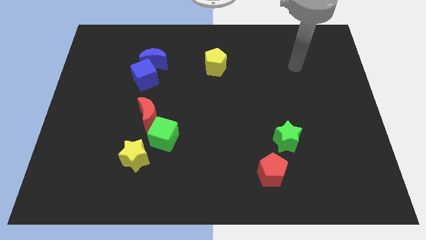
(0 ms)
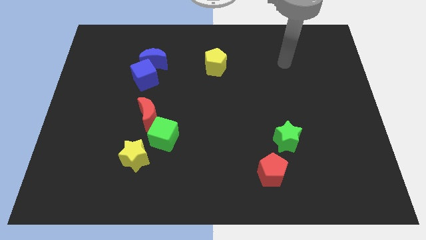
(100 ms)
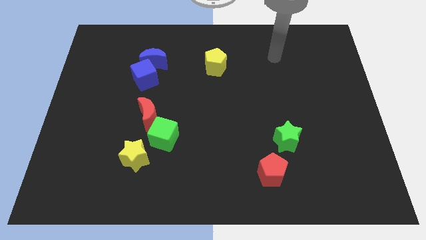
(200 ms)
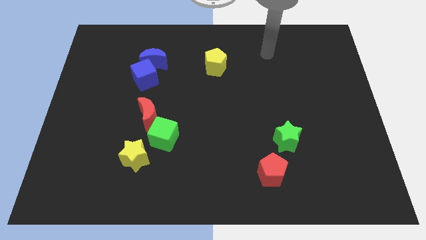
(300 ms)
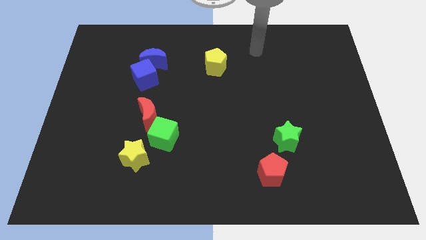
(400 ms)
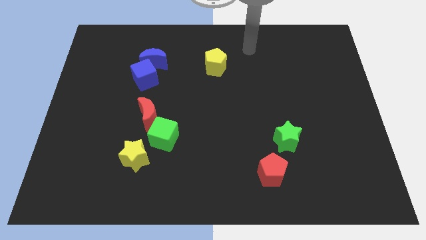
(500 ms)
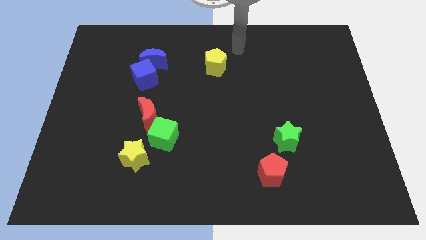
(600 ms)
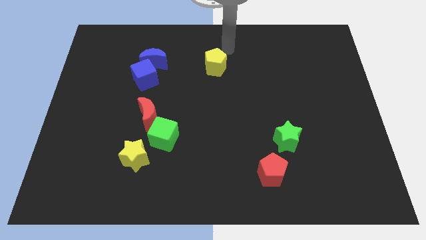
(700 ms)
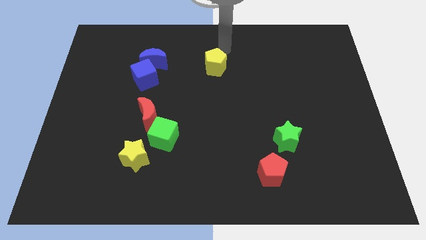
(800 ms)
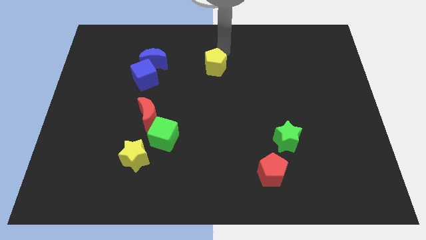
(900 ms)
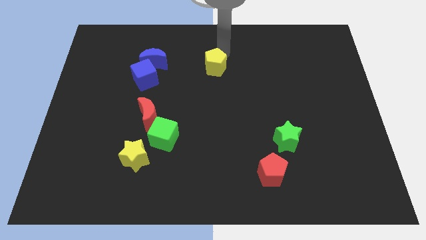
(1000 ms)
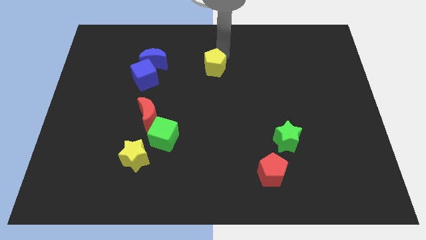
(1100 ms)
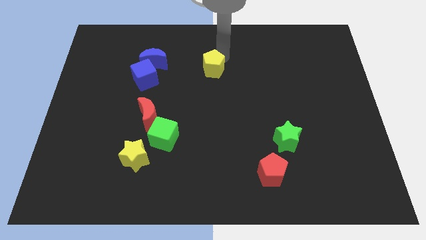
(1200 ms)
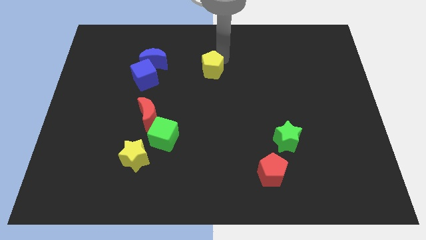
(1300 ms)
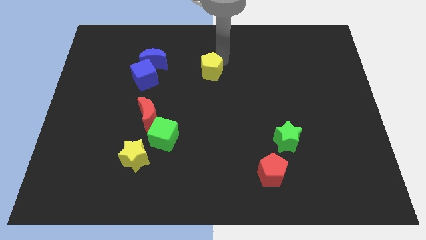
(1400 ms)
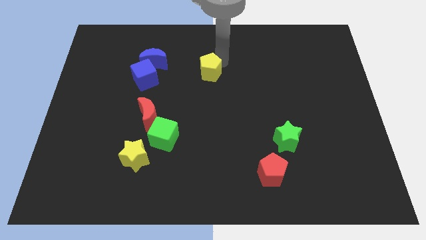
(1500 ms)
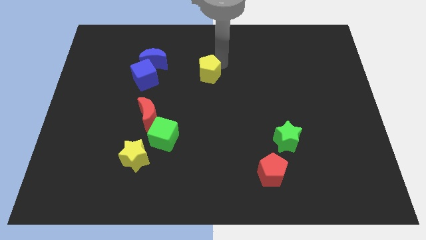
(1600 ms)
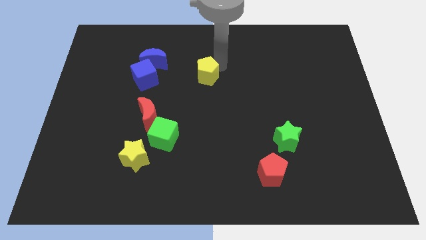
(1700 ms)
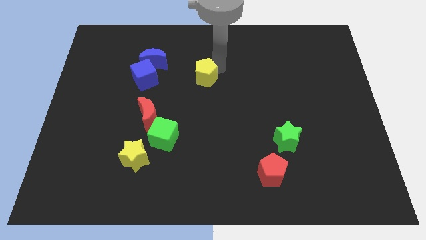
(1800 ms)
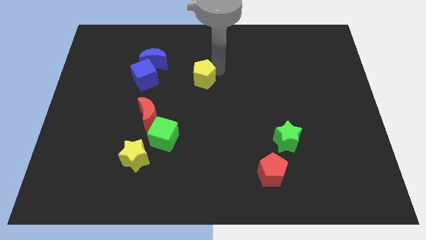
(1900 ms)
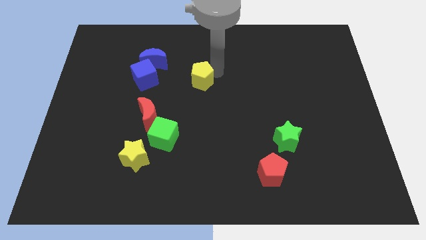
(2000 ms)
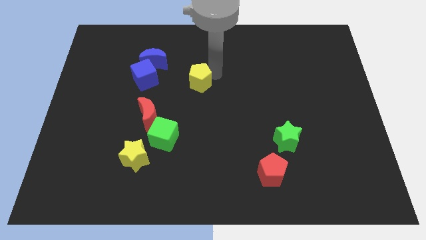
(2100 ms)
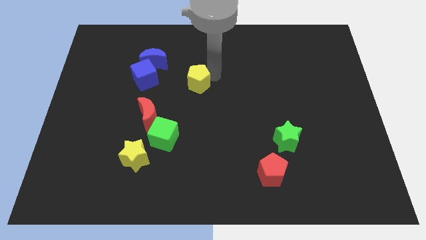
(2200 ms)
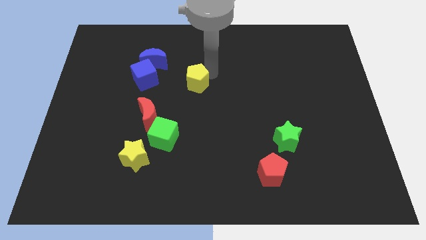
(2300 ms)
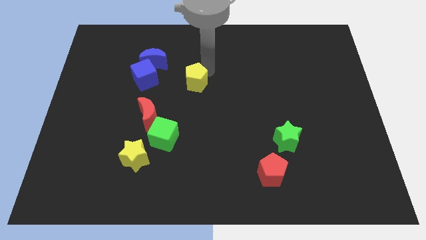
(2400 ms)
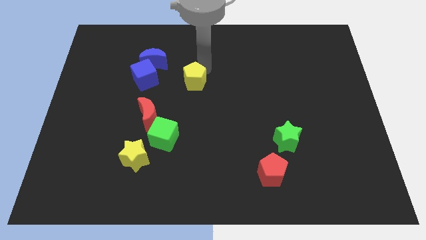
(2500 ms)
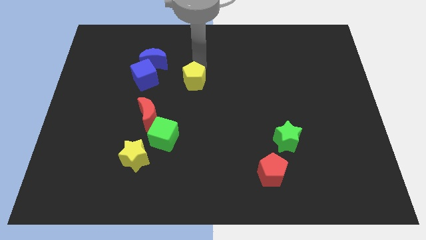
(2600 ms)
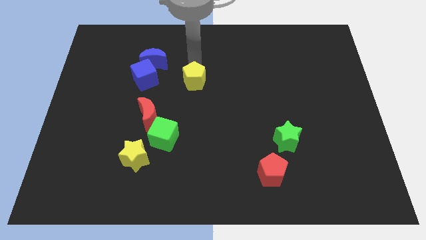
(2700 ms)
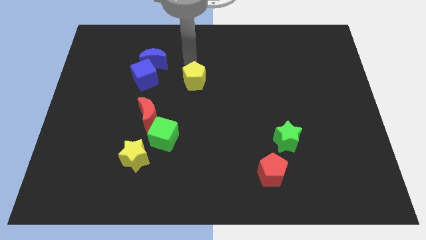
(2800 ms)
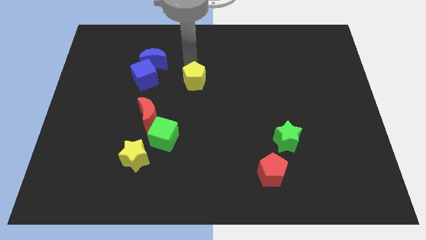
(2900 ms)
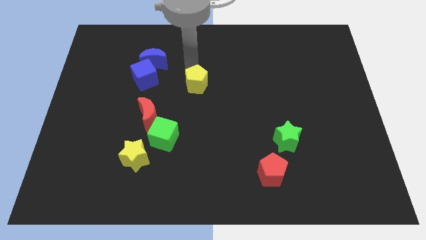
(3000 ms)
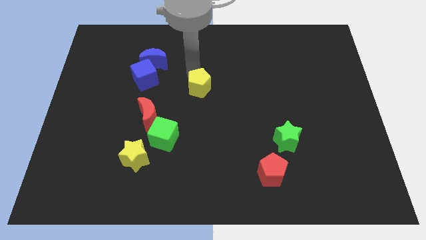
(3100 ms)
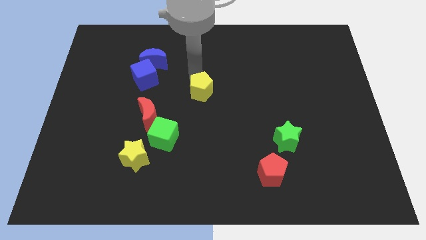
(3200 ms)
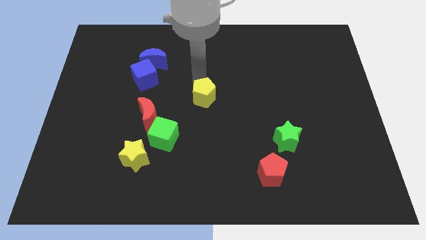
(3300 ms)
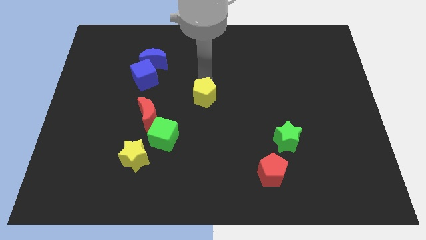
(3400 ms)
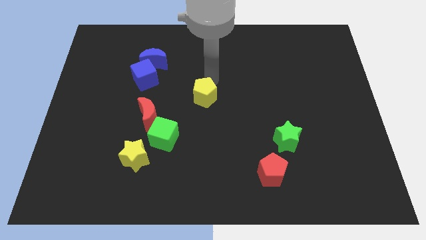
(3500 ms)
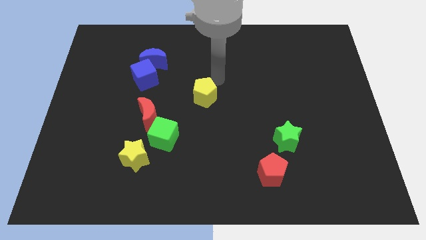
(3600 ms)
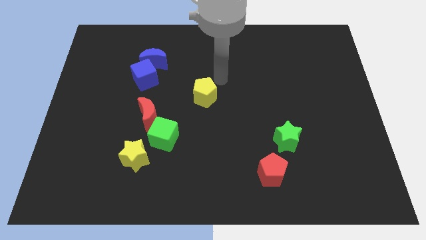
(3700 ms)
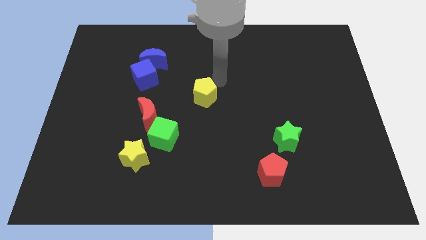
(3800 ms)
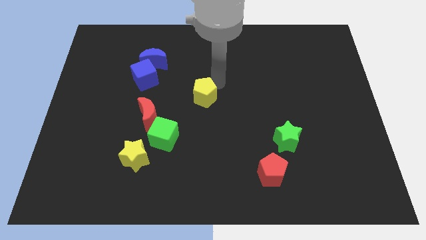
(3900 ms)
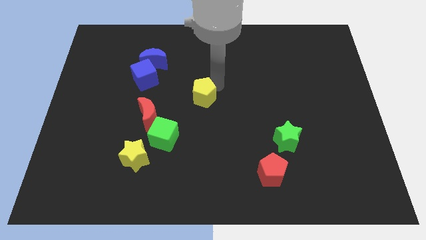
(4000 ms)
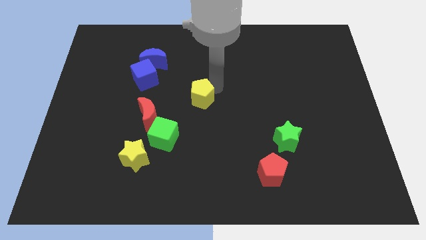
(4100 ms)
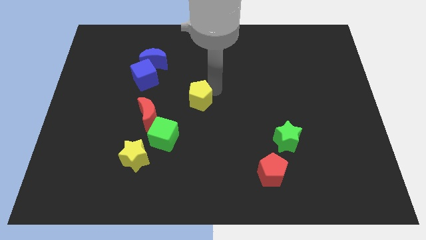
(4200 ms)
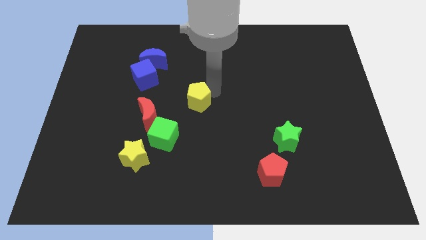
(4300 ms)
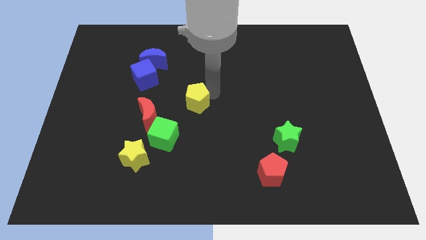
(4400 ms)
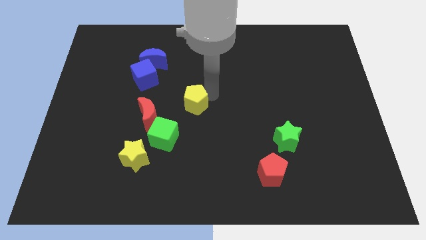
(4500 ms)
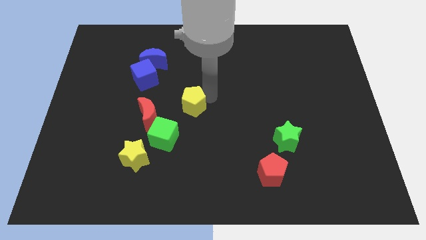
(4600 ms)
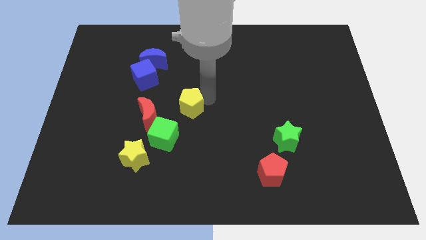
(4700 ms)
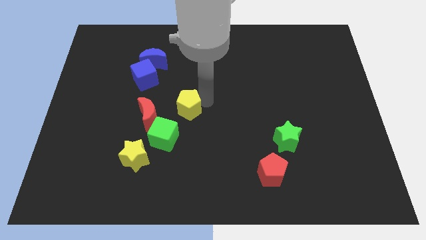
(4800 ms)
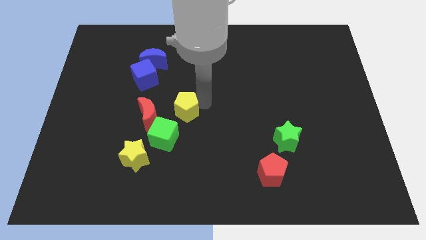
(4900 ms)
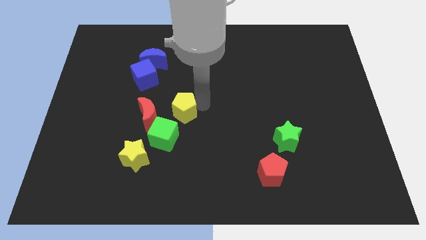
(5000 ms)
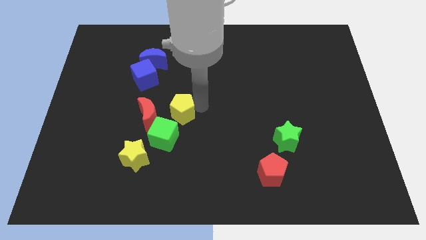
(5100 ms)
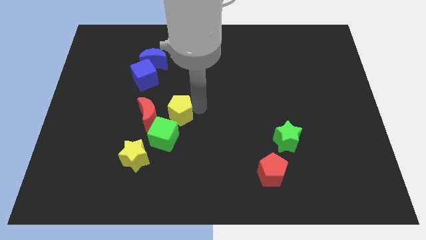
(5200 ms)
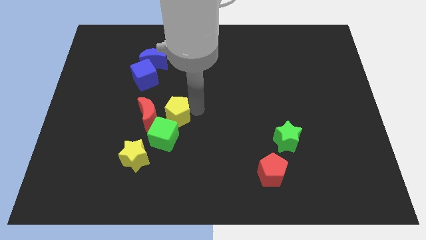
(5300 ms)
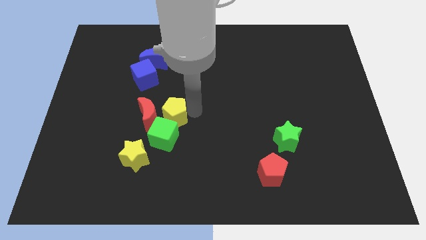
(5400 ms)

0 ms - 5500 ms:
slide the yellow pentagon next to the green cube

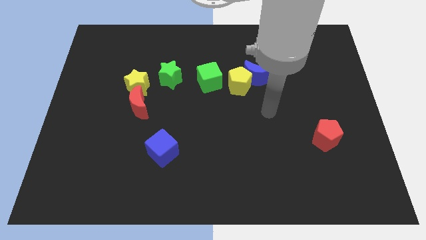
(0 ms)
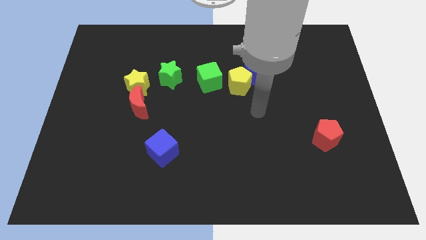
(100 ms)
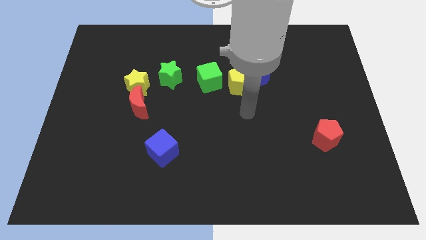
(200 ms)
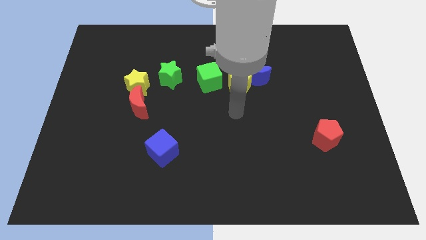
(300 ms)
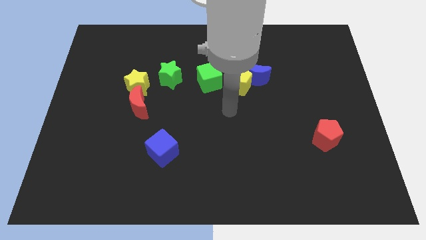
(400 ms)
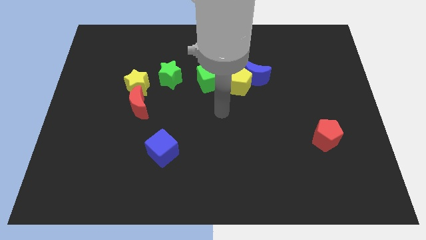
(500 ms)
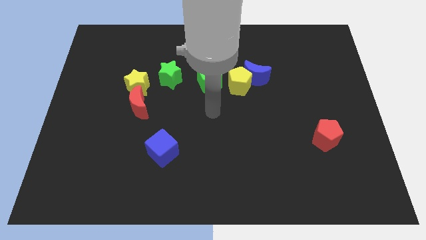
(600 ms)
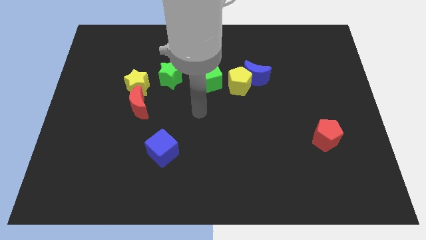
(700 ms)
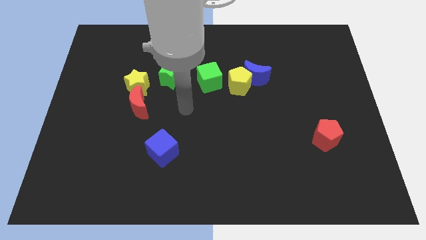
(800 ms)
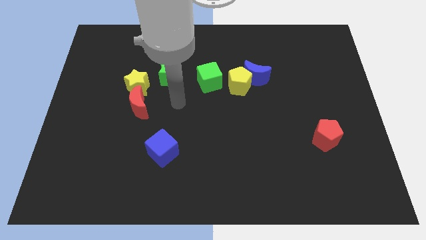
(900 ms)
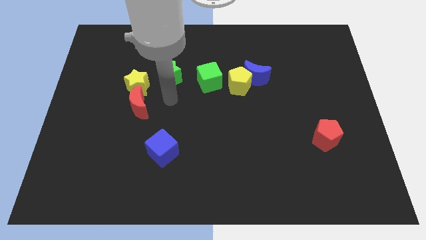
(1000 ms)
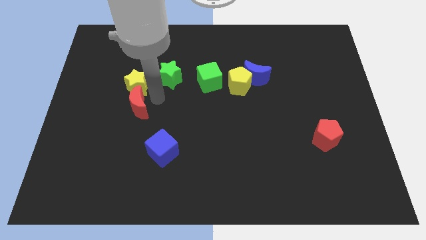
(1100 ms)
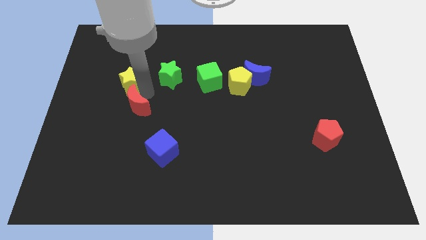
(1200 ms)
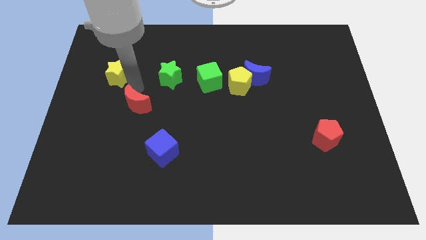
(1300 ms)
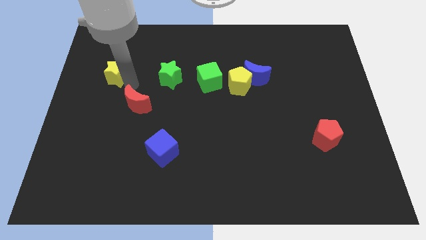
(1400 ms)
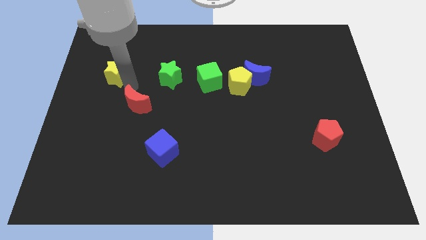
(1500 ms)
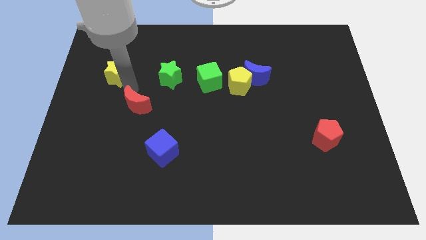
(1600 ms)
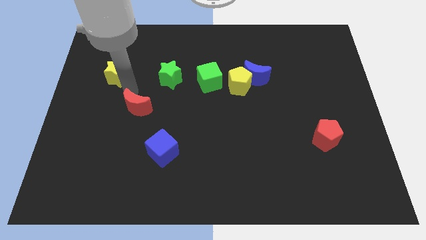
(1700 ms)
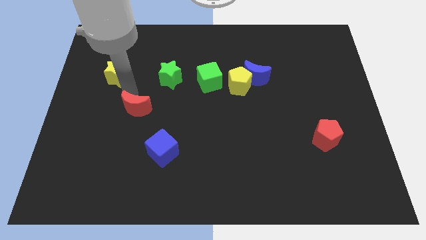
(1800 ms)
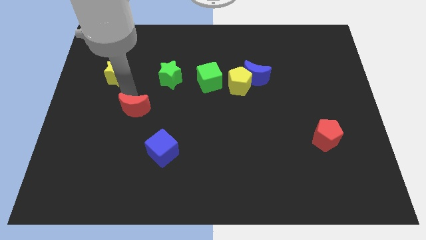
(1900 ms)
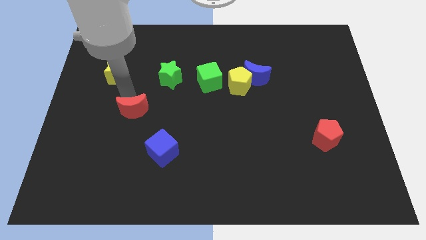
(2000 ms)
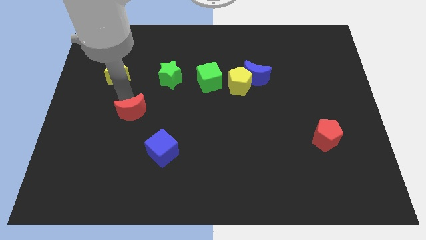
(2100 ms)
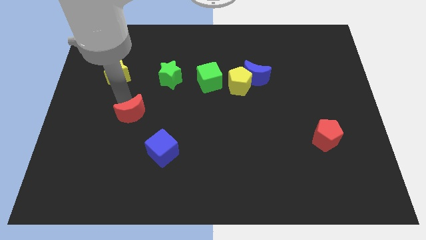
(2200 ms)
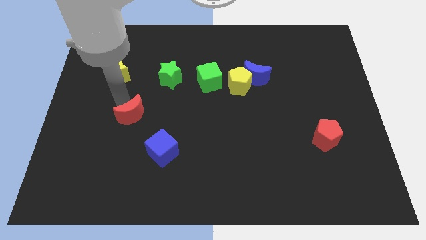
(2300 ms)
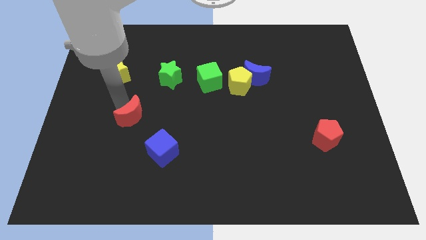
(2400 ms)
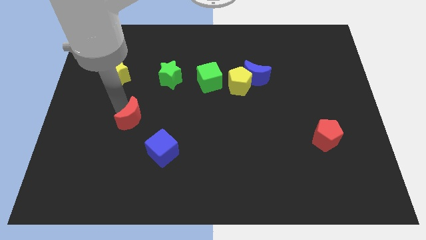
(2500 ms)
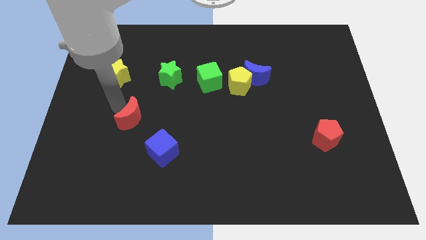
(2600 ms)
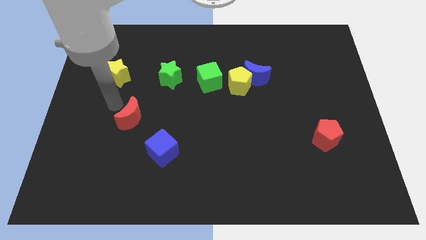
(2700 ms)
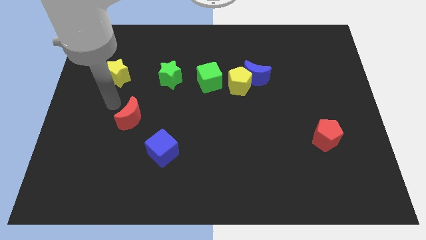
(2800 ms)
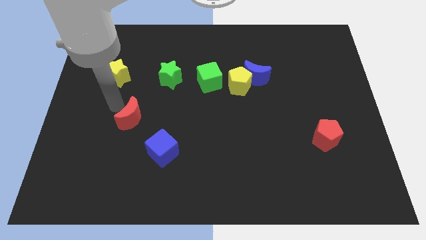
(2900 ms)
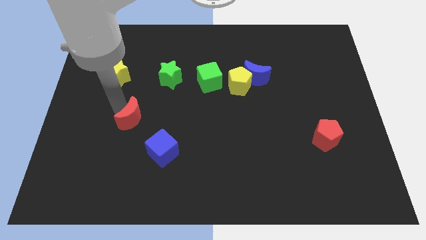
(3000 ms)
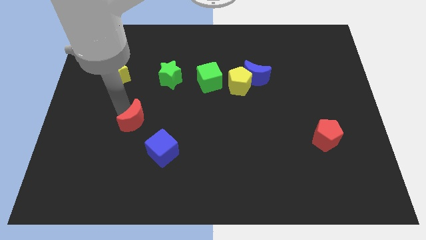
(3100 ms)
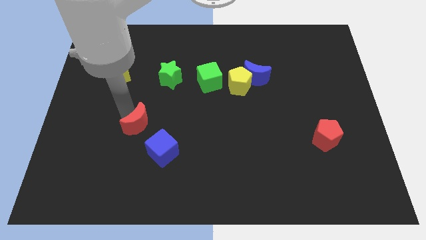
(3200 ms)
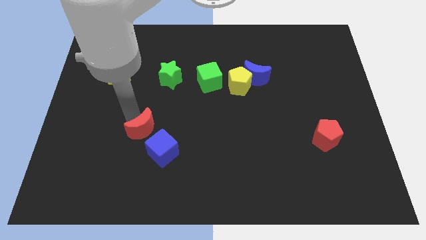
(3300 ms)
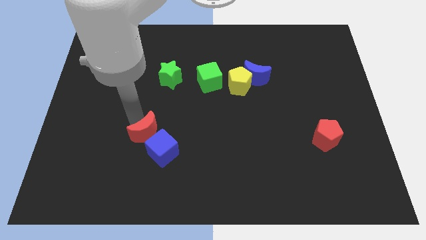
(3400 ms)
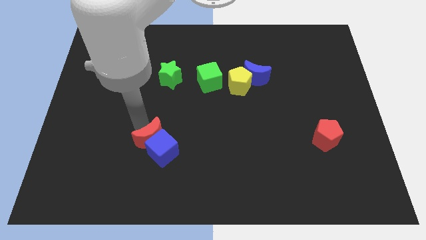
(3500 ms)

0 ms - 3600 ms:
slide the red moon next to the blue cube
